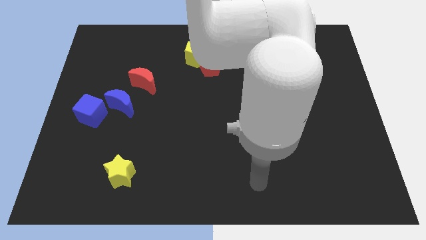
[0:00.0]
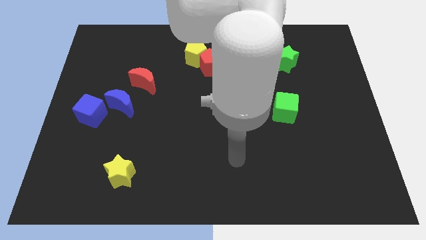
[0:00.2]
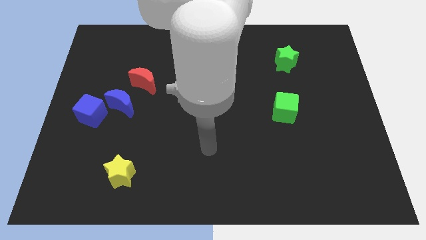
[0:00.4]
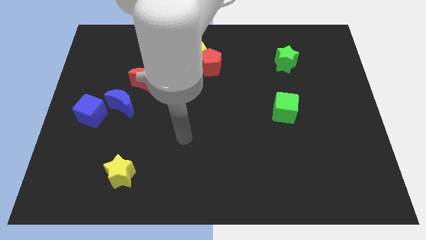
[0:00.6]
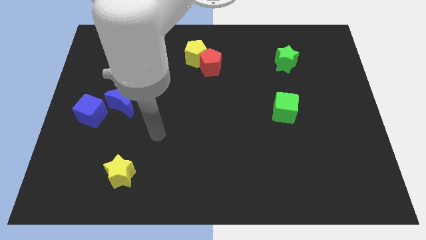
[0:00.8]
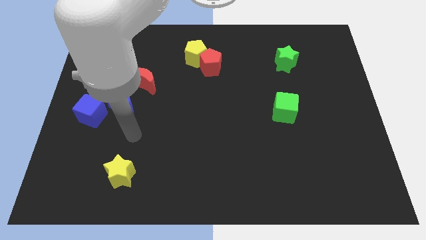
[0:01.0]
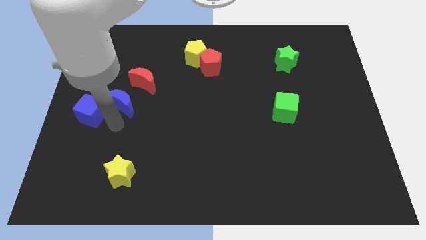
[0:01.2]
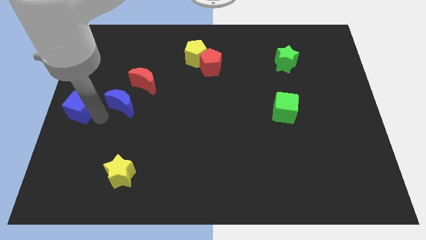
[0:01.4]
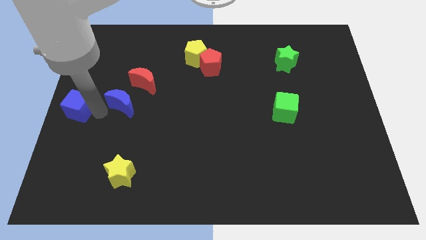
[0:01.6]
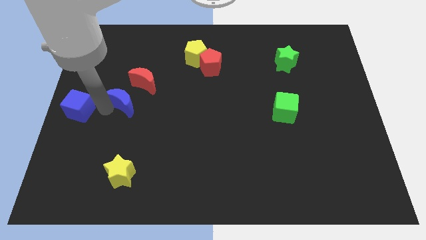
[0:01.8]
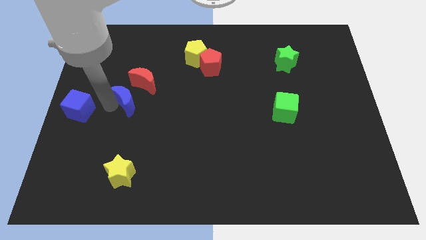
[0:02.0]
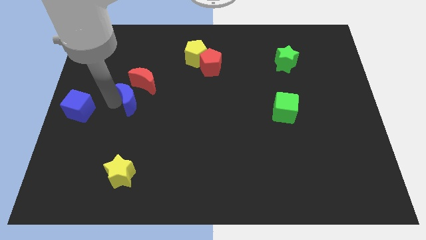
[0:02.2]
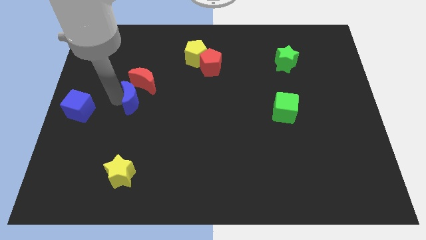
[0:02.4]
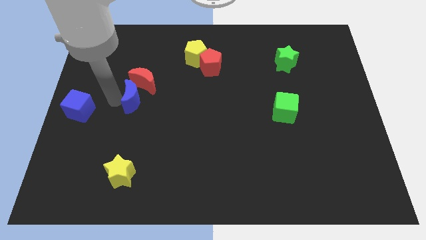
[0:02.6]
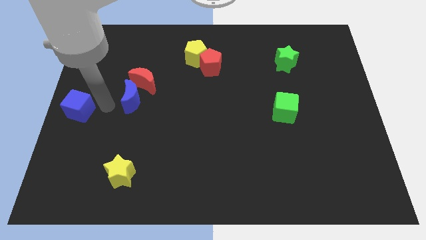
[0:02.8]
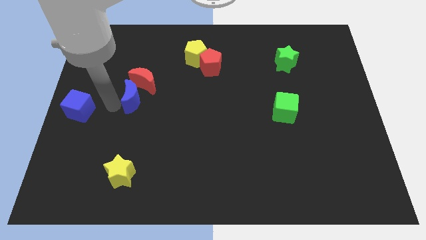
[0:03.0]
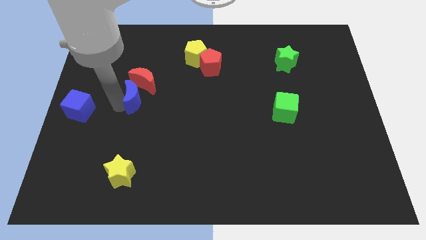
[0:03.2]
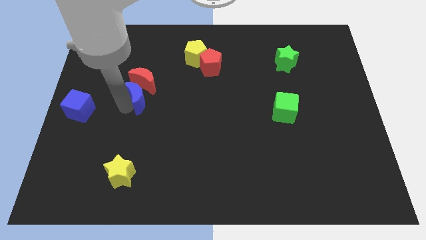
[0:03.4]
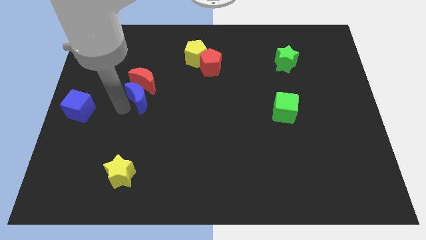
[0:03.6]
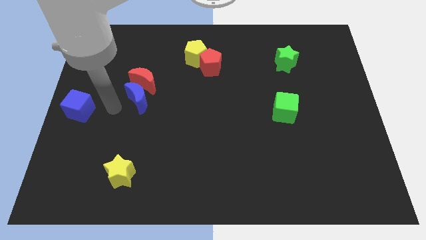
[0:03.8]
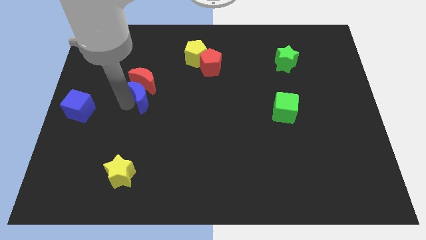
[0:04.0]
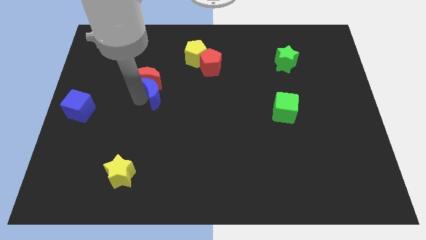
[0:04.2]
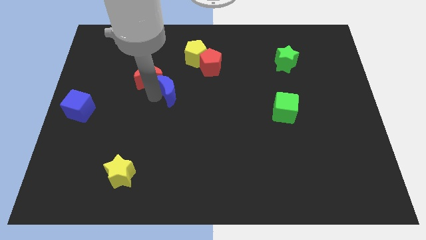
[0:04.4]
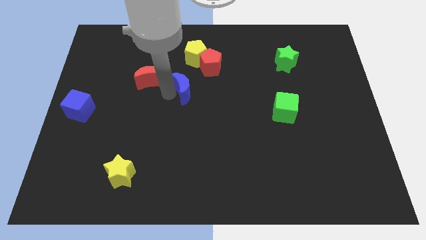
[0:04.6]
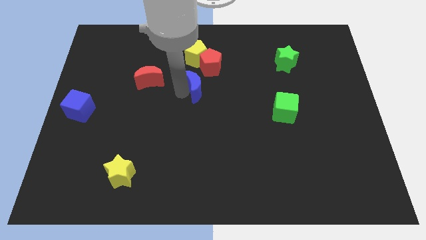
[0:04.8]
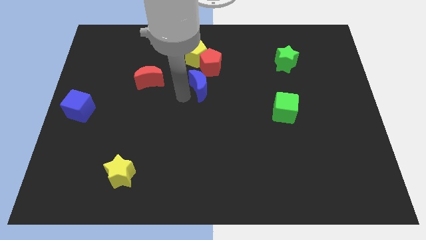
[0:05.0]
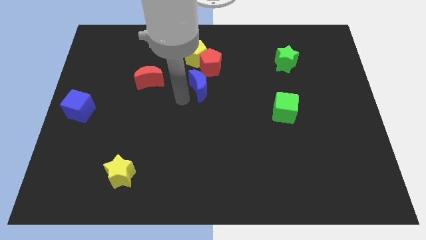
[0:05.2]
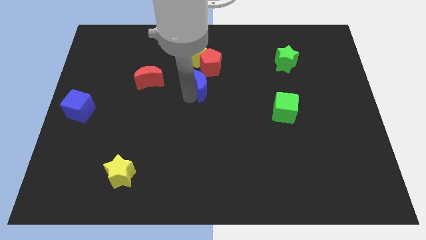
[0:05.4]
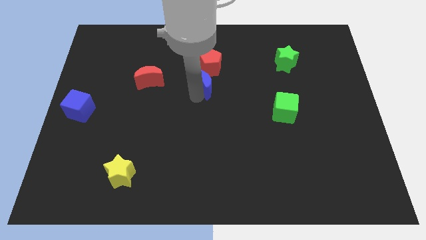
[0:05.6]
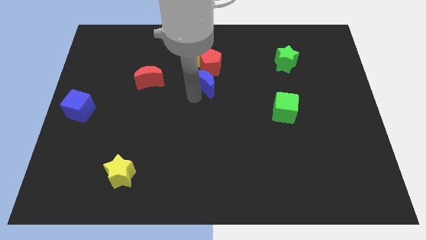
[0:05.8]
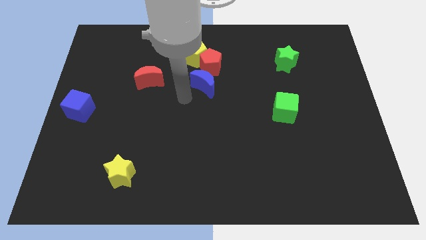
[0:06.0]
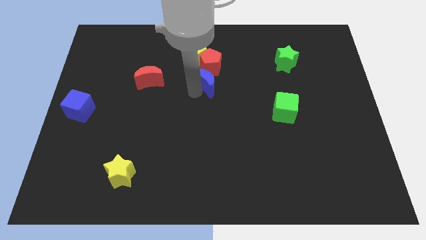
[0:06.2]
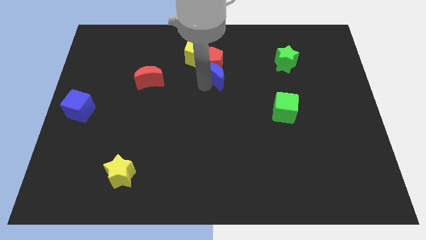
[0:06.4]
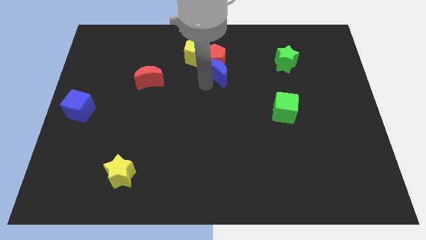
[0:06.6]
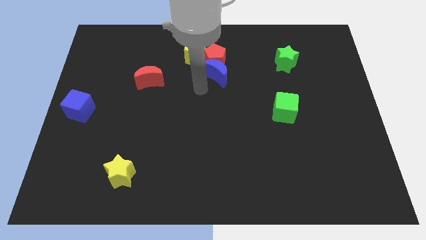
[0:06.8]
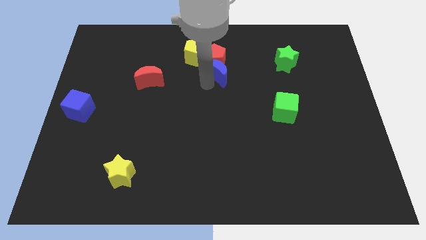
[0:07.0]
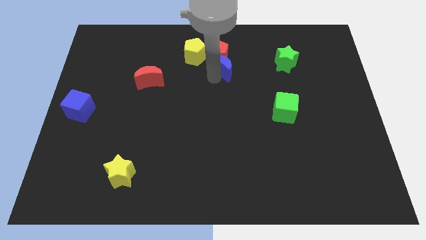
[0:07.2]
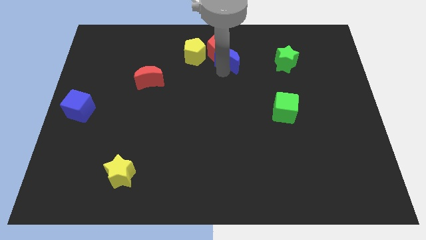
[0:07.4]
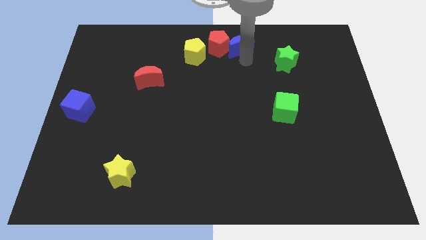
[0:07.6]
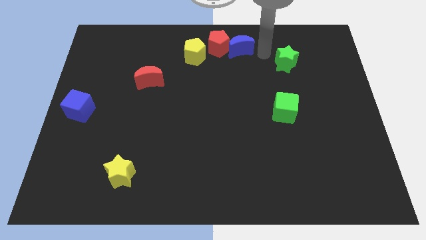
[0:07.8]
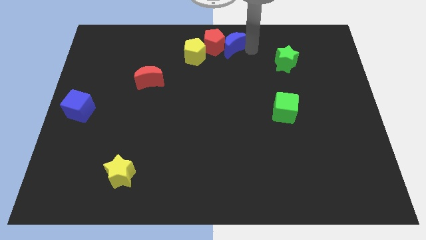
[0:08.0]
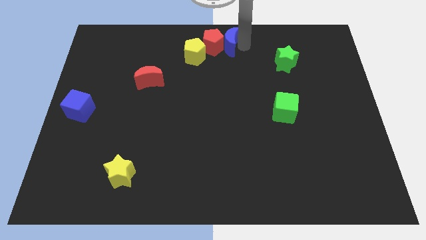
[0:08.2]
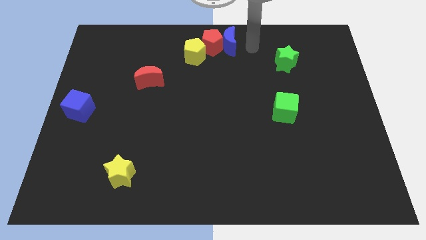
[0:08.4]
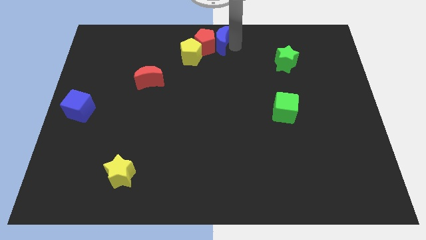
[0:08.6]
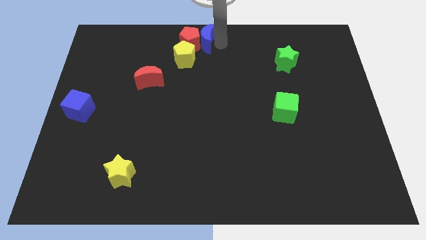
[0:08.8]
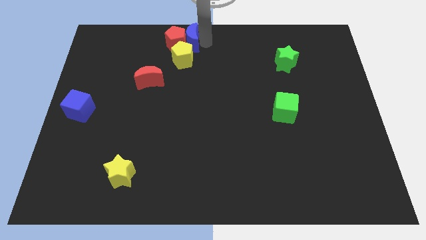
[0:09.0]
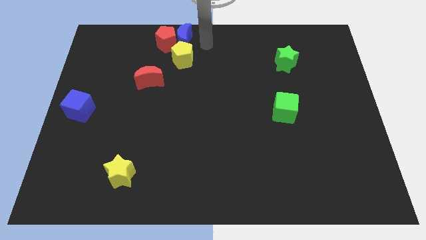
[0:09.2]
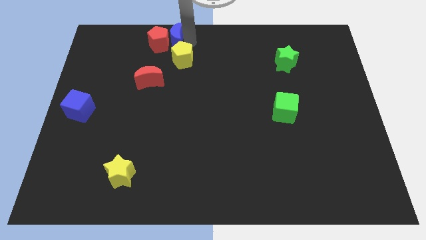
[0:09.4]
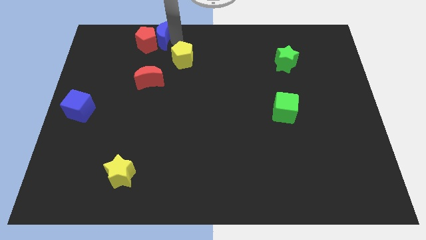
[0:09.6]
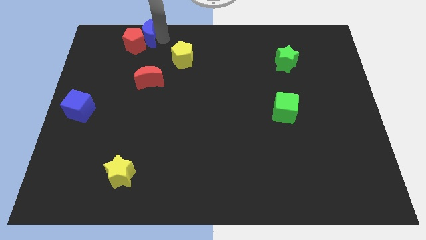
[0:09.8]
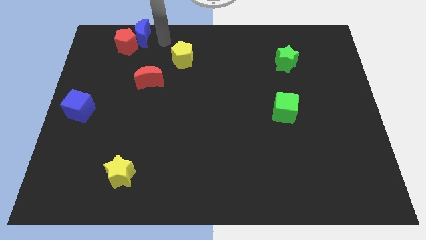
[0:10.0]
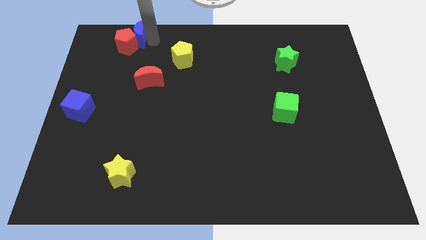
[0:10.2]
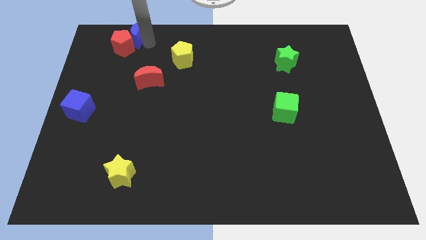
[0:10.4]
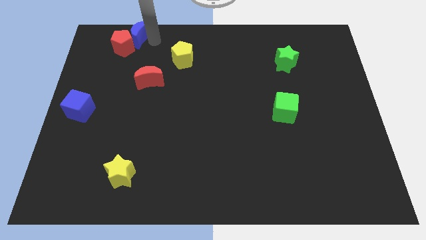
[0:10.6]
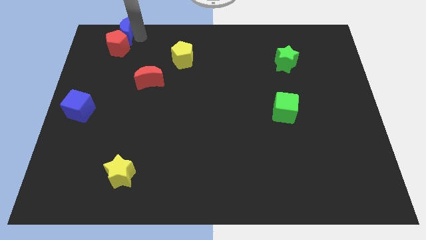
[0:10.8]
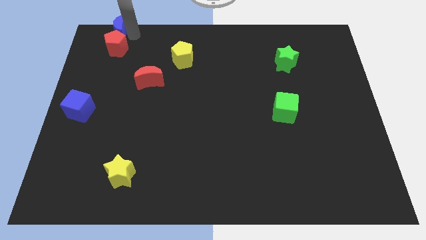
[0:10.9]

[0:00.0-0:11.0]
push the blue moon to the top left of the board
